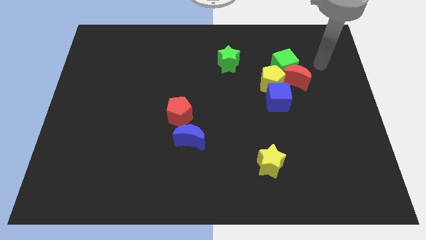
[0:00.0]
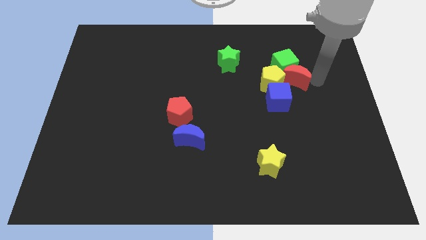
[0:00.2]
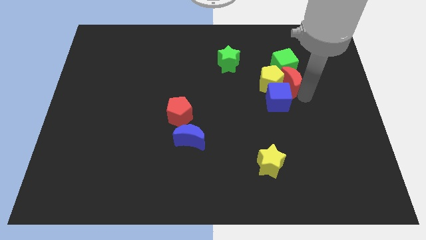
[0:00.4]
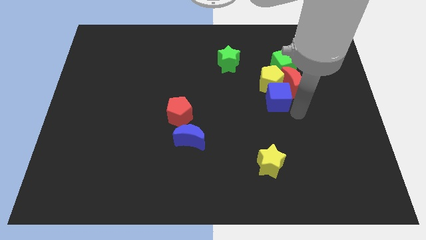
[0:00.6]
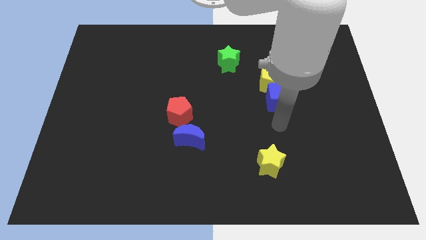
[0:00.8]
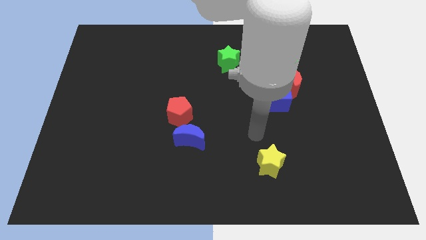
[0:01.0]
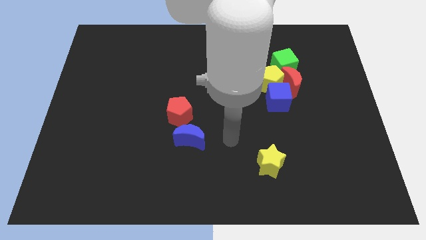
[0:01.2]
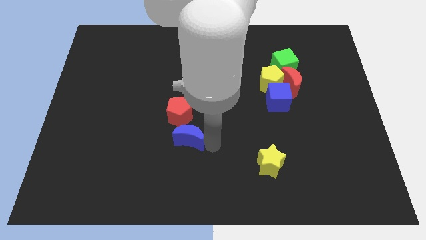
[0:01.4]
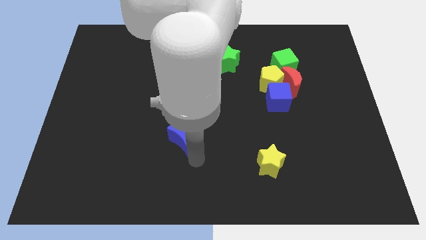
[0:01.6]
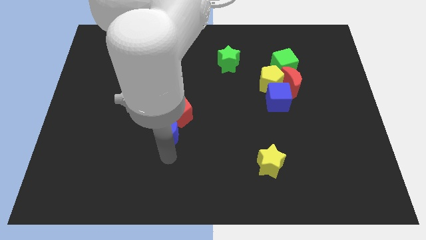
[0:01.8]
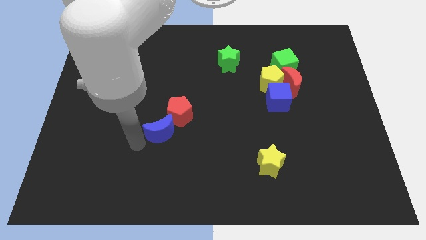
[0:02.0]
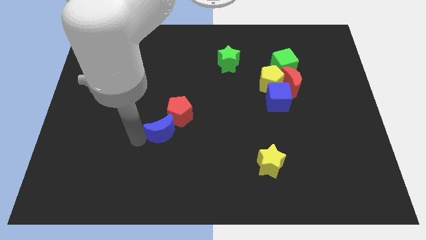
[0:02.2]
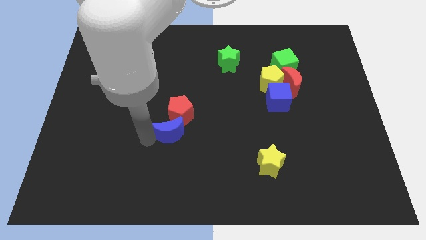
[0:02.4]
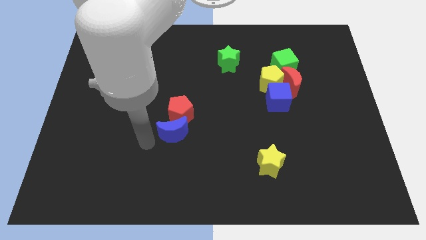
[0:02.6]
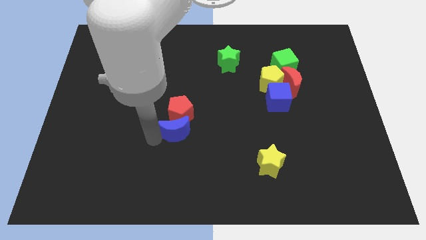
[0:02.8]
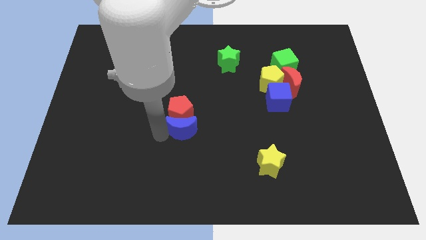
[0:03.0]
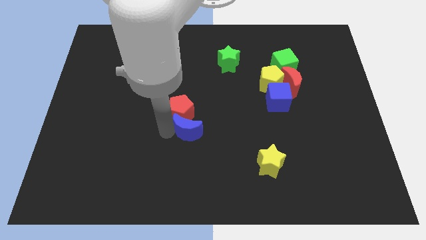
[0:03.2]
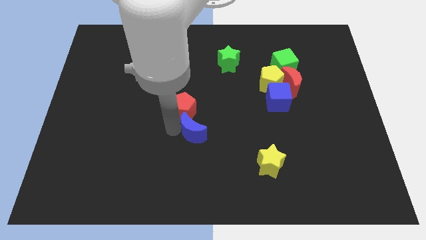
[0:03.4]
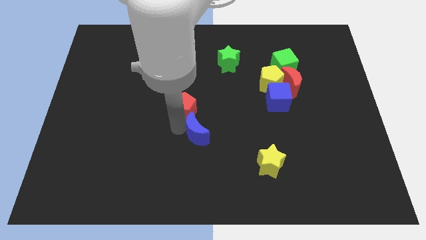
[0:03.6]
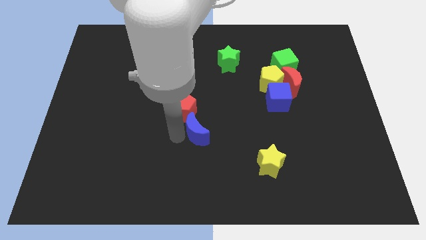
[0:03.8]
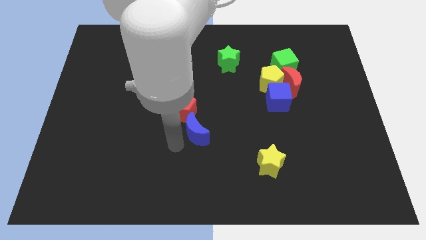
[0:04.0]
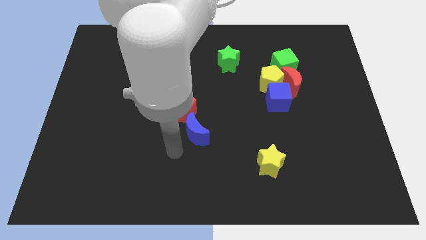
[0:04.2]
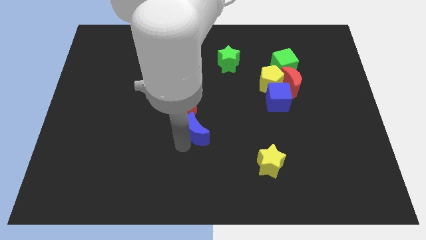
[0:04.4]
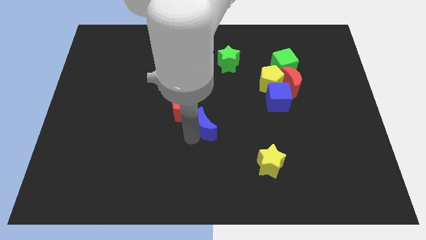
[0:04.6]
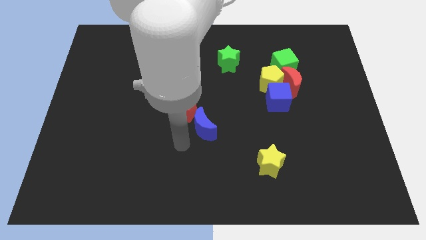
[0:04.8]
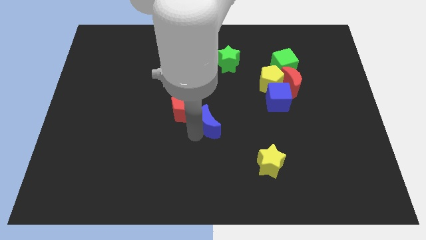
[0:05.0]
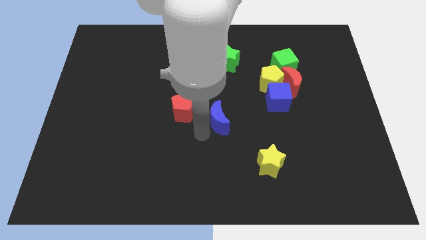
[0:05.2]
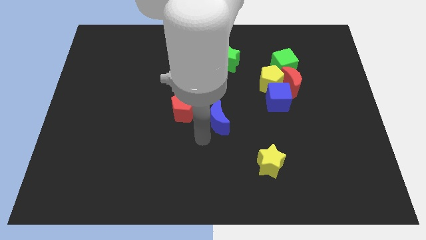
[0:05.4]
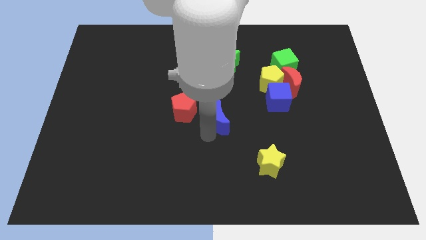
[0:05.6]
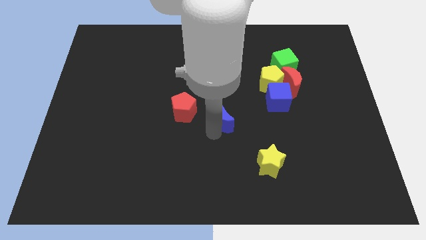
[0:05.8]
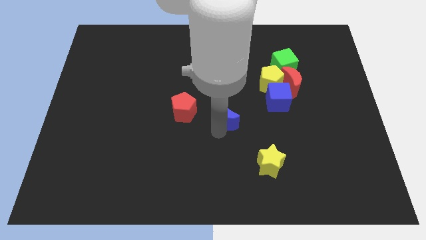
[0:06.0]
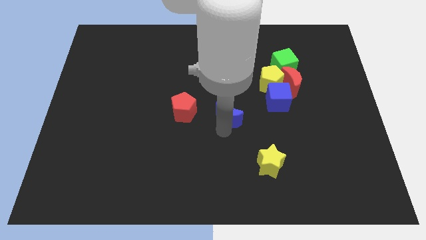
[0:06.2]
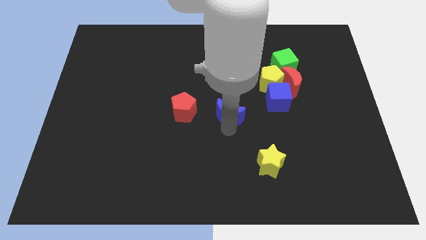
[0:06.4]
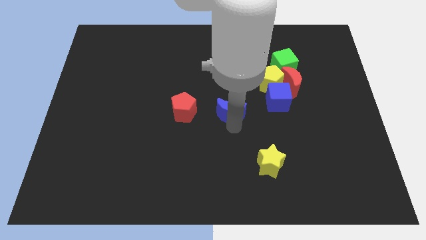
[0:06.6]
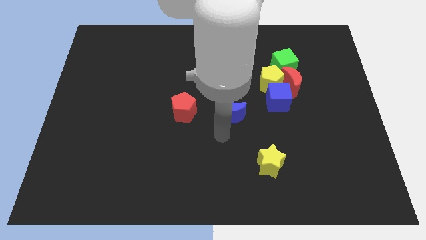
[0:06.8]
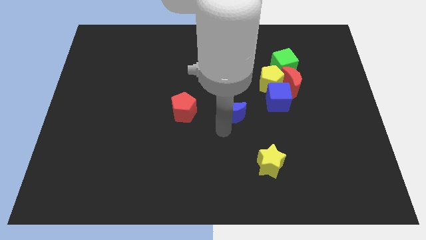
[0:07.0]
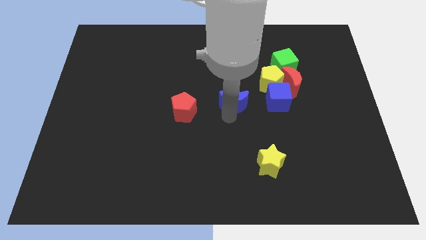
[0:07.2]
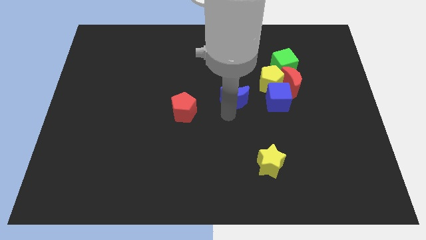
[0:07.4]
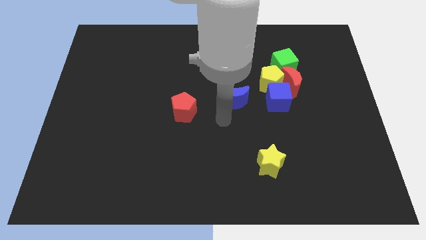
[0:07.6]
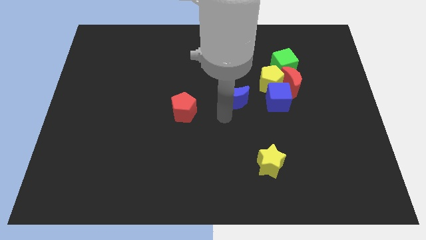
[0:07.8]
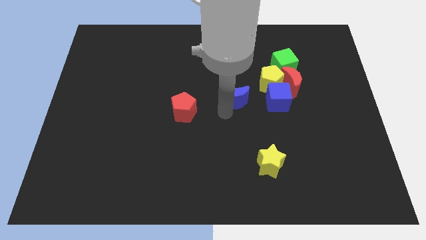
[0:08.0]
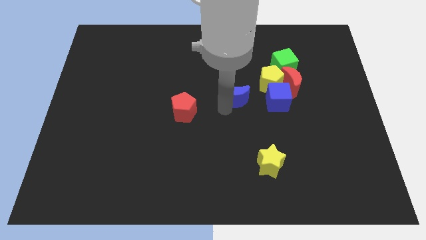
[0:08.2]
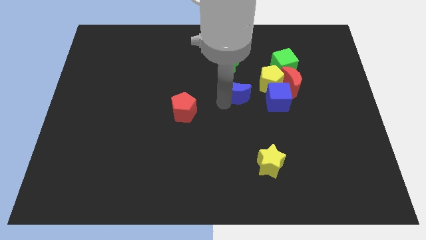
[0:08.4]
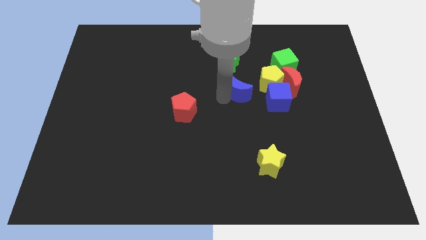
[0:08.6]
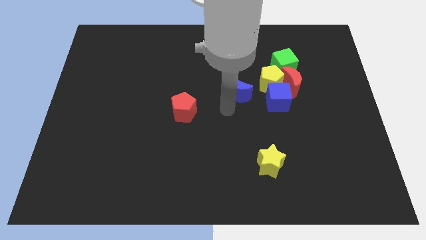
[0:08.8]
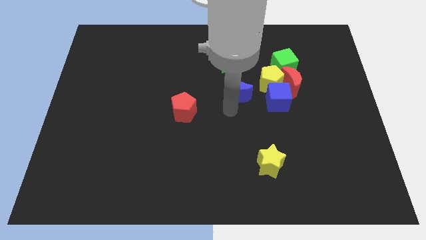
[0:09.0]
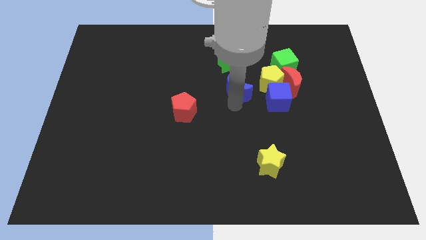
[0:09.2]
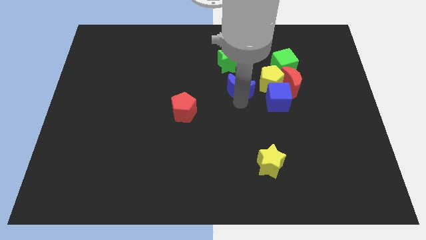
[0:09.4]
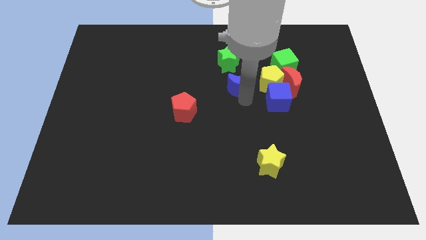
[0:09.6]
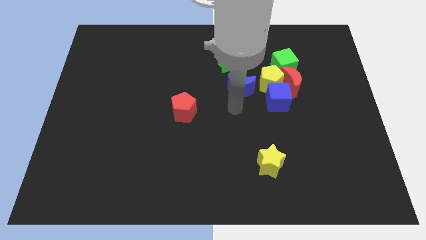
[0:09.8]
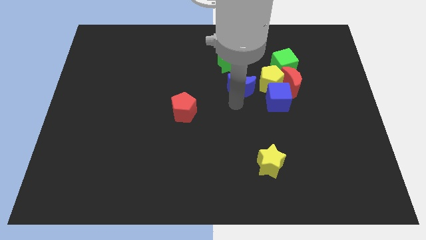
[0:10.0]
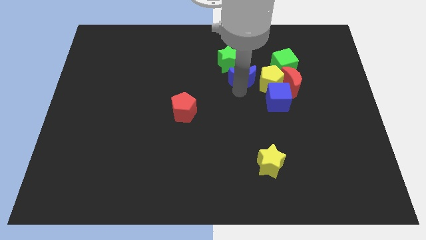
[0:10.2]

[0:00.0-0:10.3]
slide the blue moon to the top left of the yellow pentagon

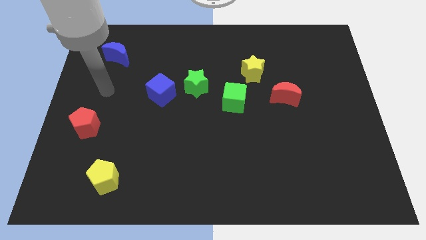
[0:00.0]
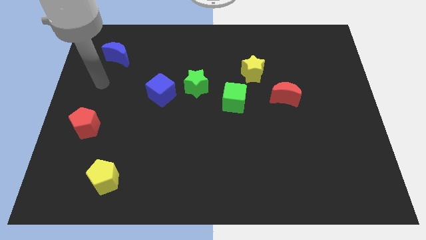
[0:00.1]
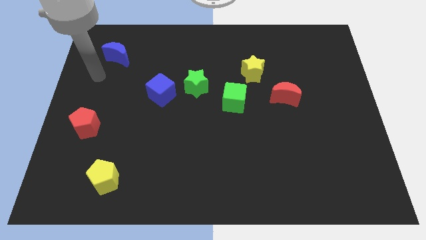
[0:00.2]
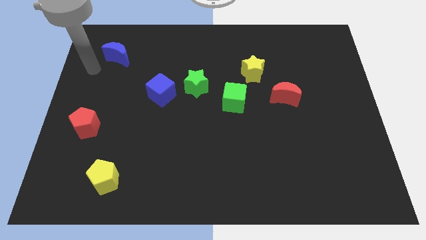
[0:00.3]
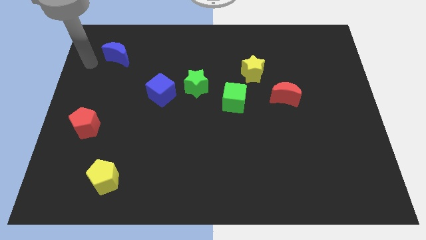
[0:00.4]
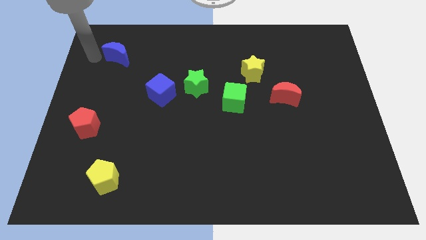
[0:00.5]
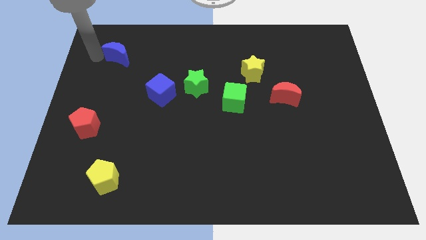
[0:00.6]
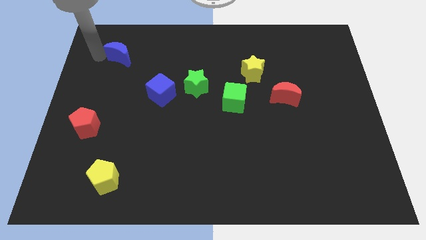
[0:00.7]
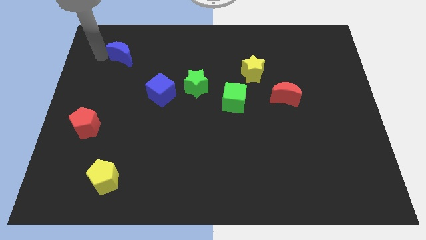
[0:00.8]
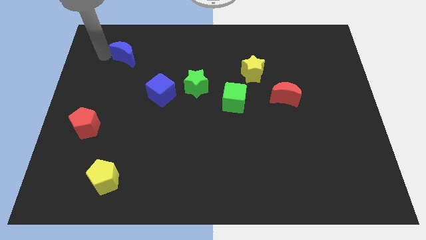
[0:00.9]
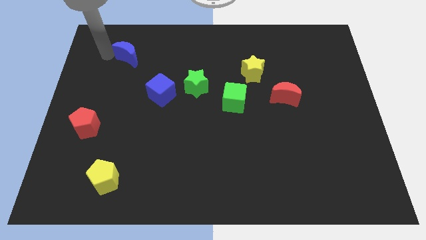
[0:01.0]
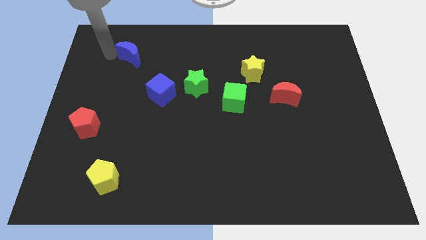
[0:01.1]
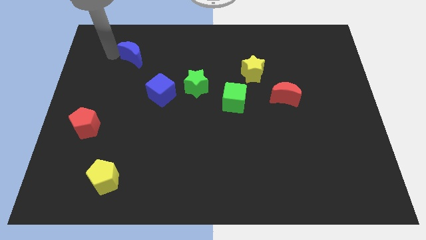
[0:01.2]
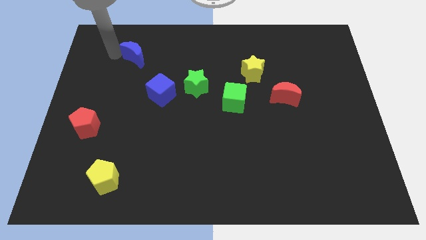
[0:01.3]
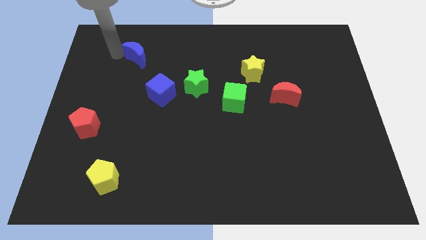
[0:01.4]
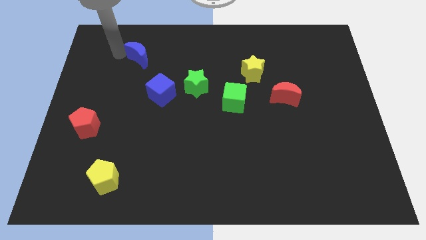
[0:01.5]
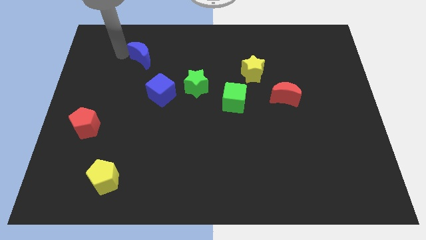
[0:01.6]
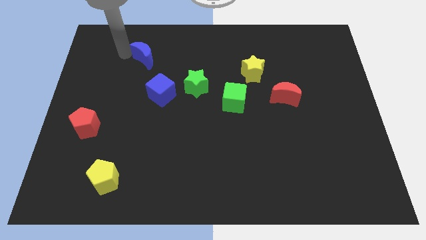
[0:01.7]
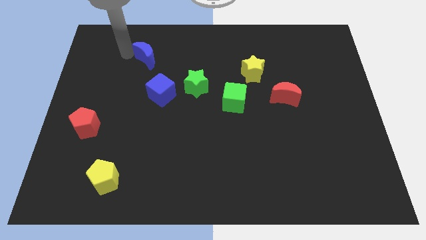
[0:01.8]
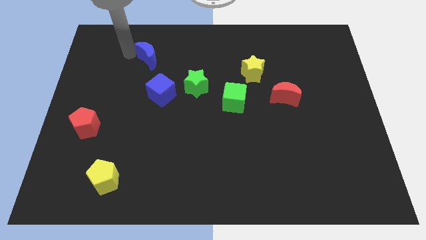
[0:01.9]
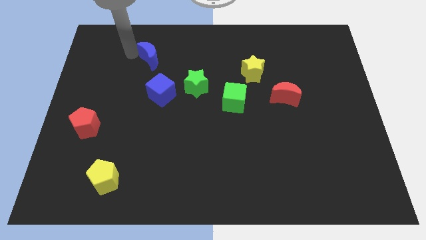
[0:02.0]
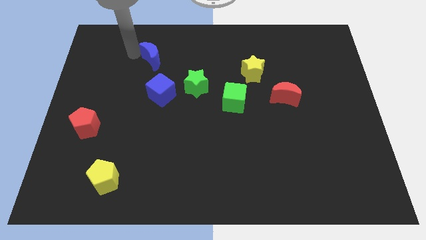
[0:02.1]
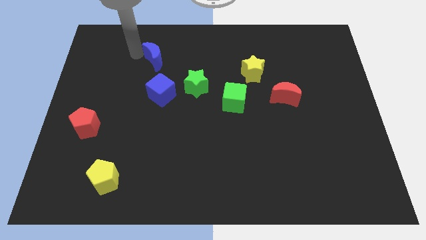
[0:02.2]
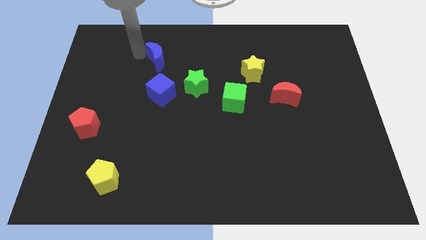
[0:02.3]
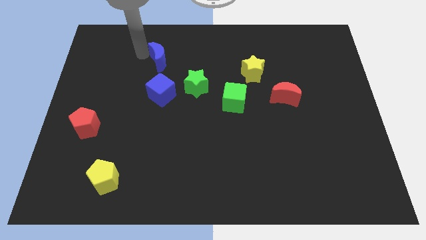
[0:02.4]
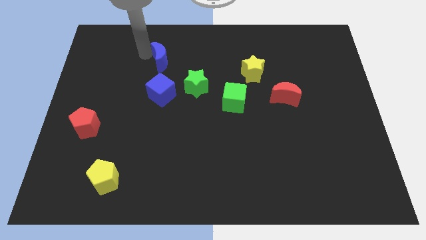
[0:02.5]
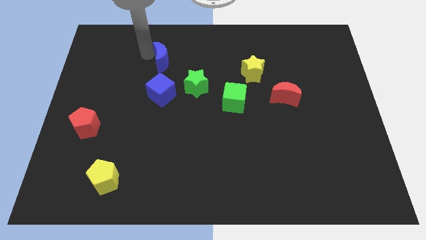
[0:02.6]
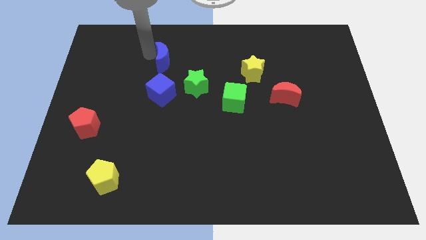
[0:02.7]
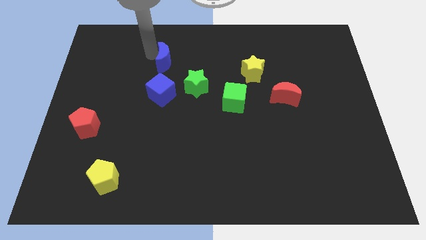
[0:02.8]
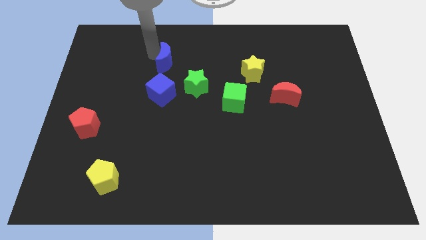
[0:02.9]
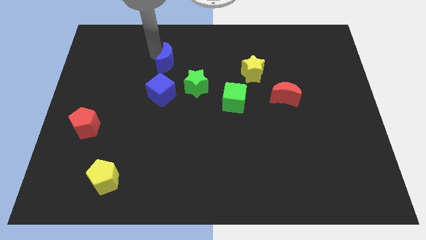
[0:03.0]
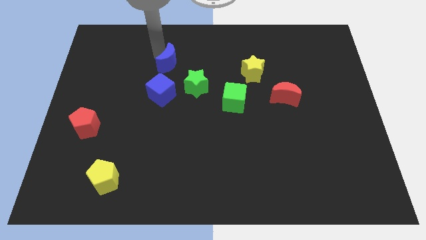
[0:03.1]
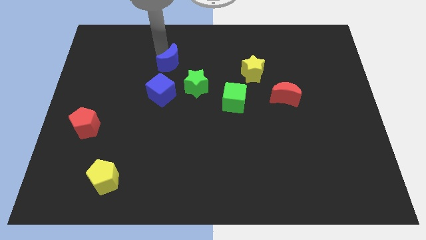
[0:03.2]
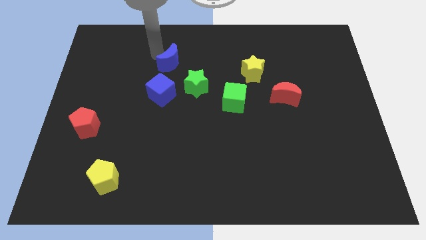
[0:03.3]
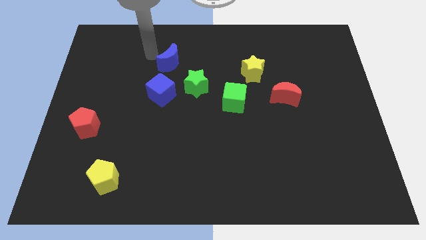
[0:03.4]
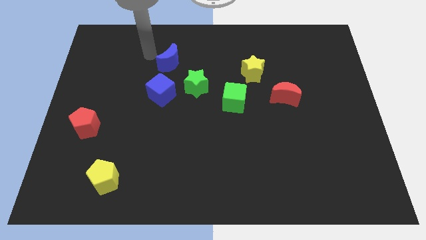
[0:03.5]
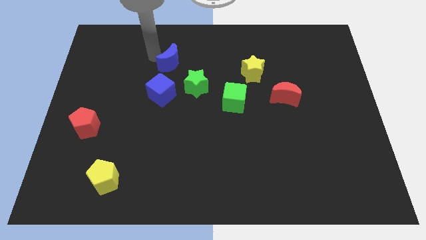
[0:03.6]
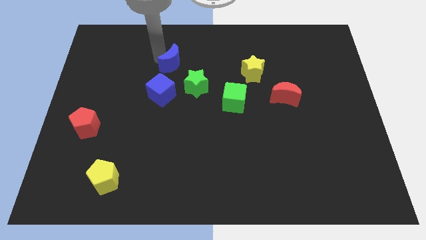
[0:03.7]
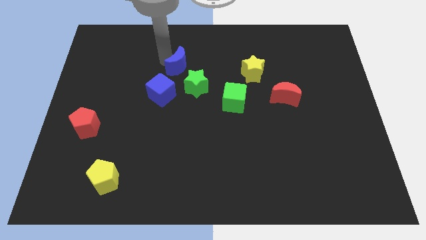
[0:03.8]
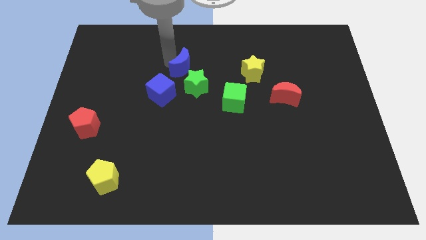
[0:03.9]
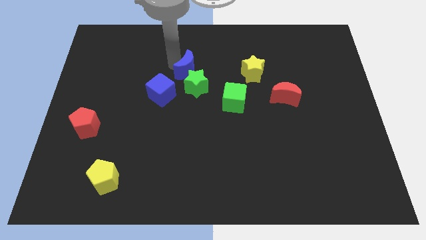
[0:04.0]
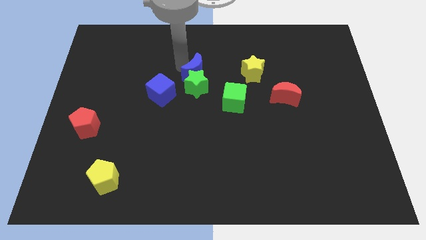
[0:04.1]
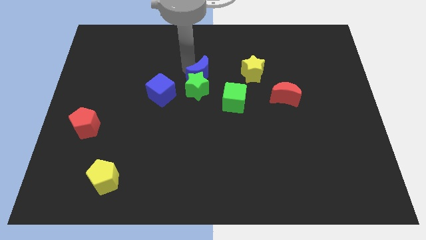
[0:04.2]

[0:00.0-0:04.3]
put the blue moon to the top left of the green cube
